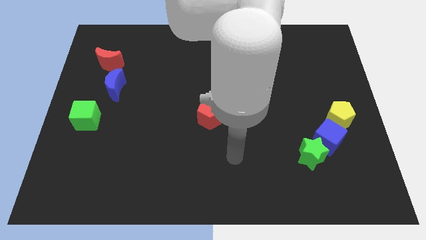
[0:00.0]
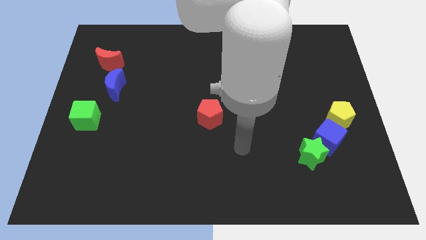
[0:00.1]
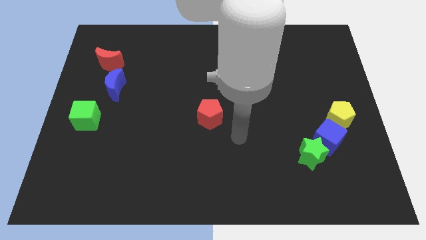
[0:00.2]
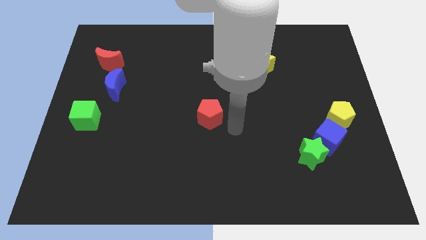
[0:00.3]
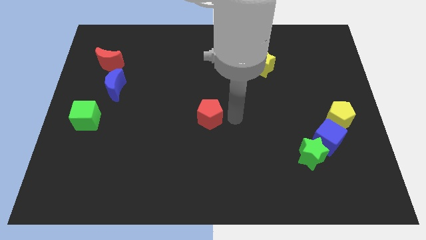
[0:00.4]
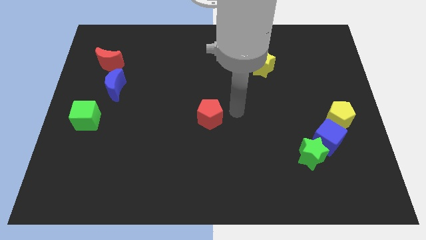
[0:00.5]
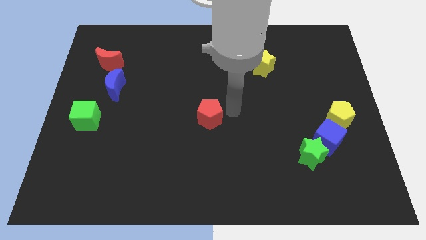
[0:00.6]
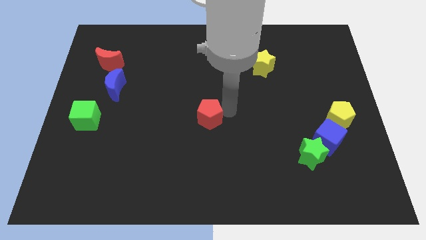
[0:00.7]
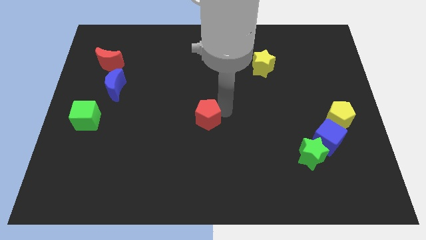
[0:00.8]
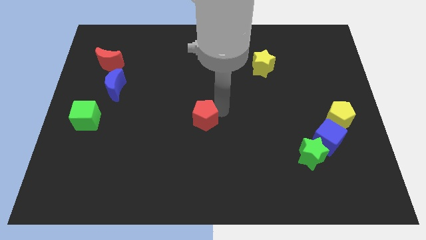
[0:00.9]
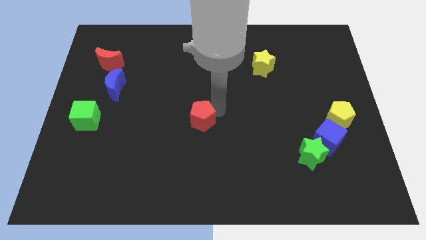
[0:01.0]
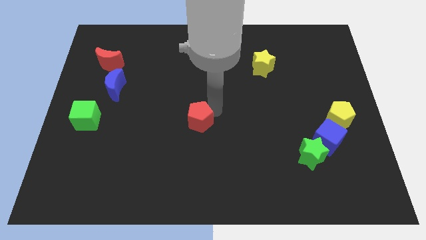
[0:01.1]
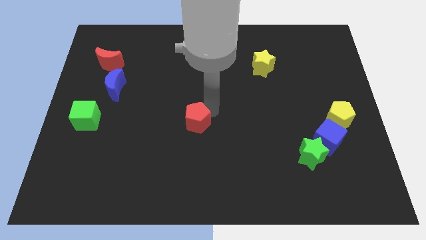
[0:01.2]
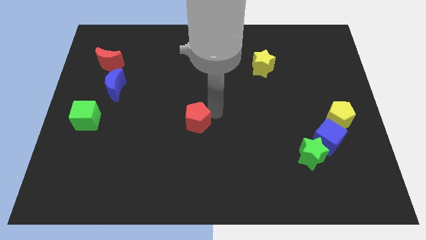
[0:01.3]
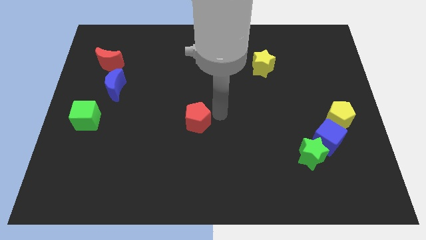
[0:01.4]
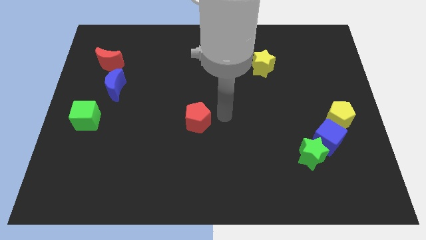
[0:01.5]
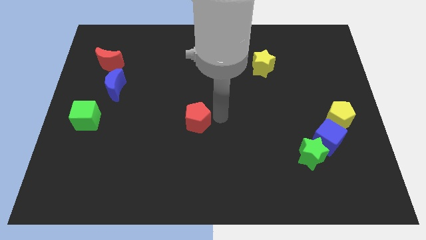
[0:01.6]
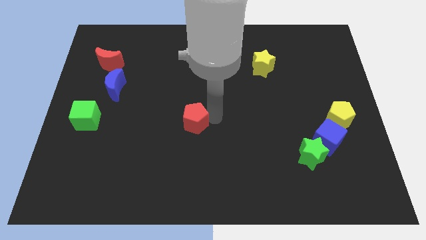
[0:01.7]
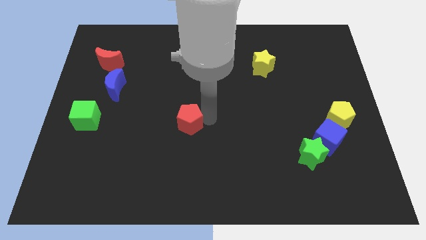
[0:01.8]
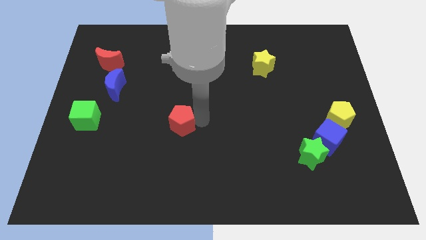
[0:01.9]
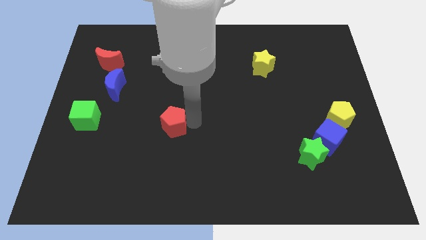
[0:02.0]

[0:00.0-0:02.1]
push the red pentagon left slightly

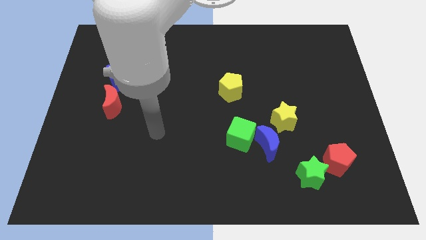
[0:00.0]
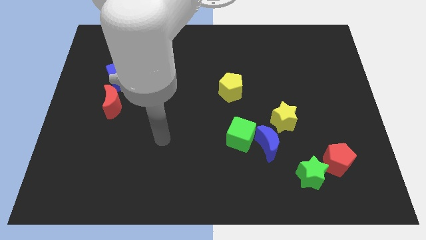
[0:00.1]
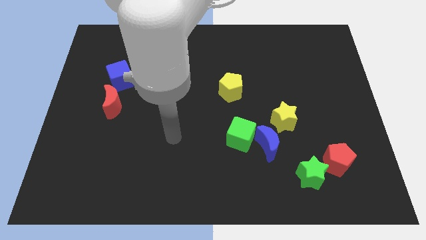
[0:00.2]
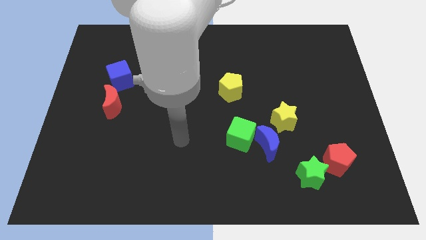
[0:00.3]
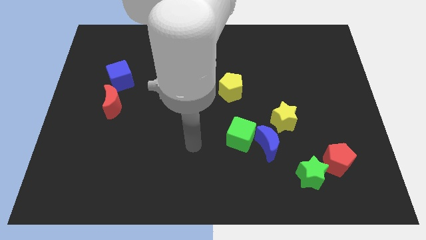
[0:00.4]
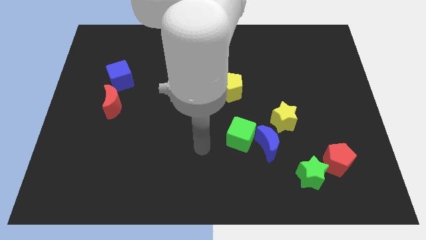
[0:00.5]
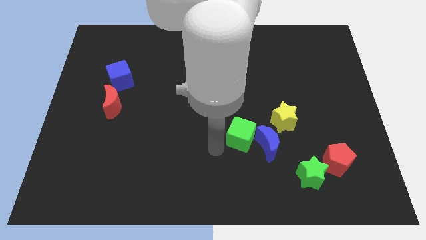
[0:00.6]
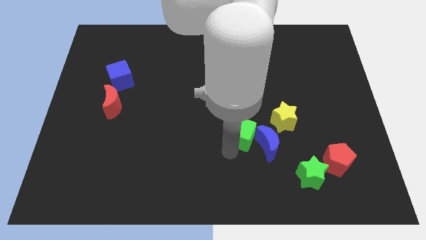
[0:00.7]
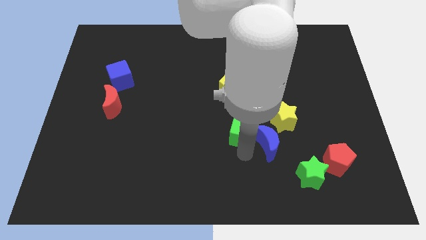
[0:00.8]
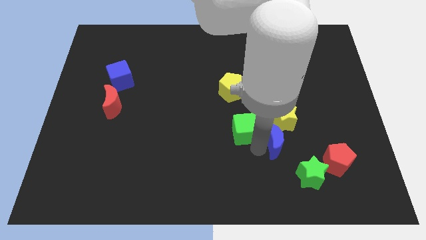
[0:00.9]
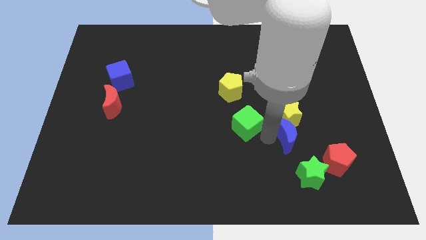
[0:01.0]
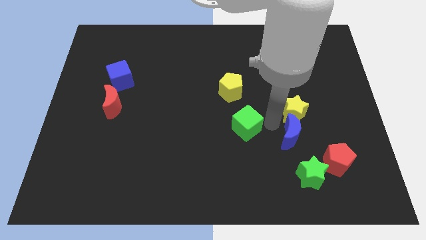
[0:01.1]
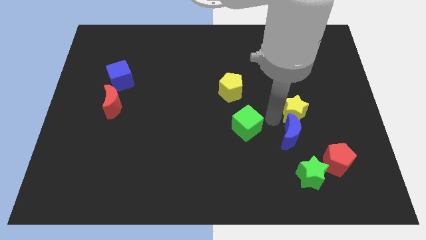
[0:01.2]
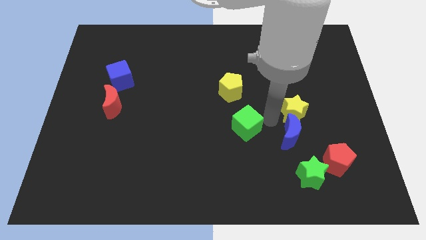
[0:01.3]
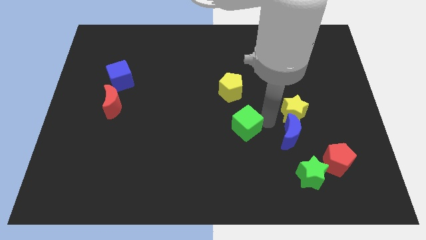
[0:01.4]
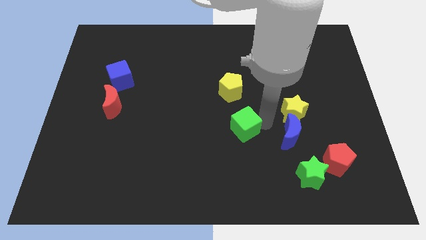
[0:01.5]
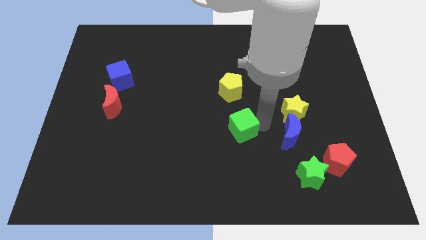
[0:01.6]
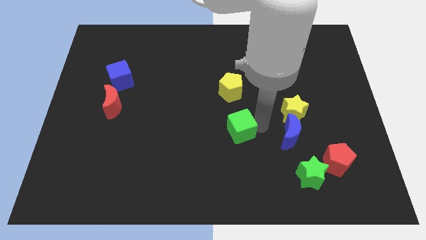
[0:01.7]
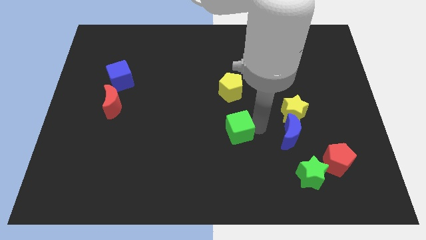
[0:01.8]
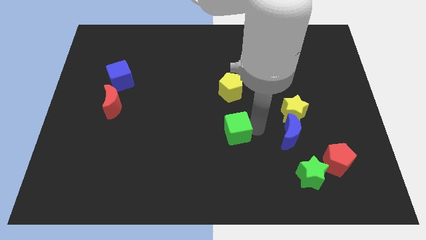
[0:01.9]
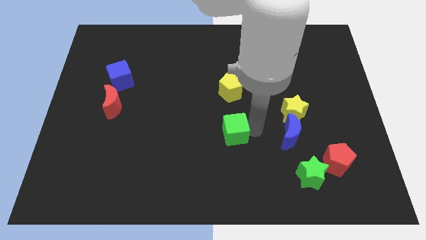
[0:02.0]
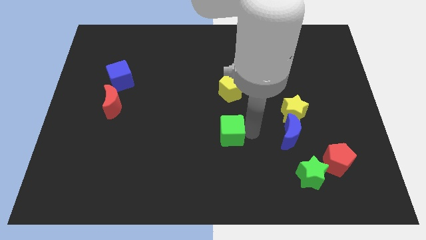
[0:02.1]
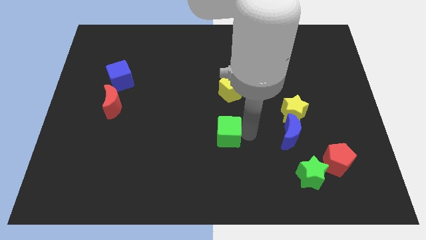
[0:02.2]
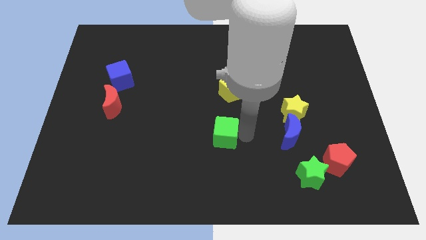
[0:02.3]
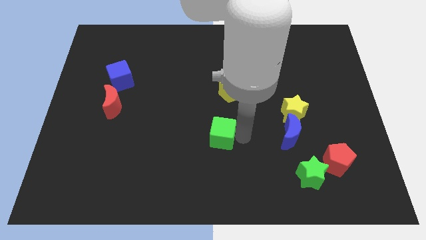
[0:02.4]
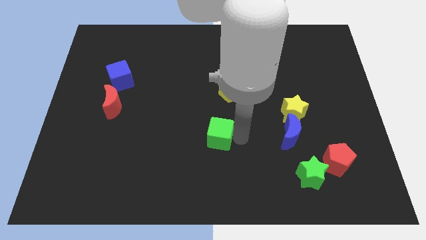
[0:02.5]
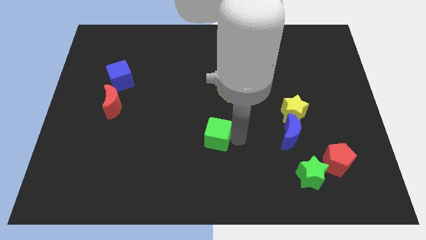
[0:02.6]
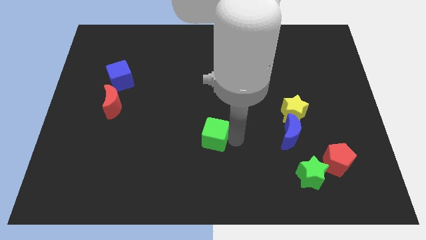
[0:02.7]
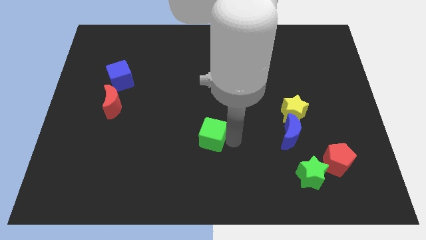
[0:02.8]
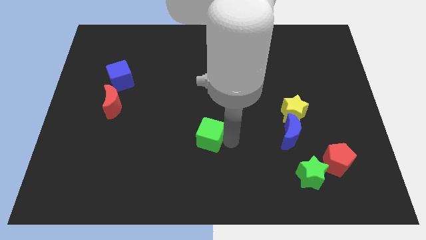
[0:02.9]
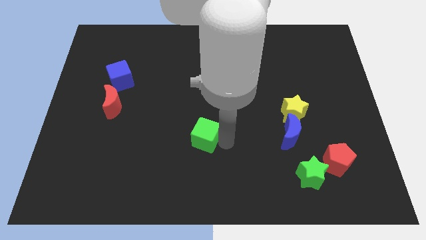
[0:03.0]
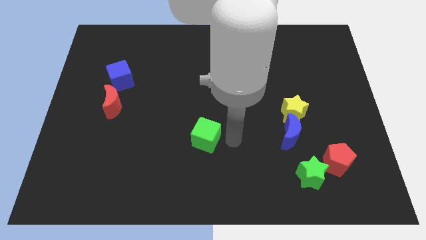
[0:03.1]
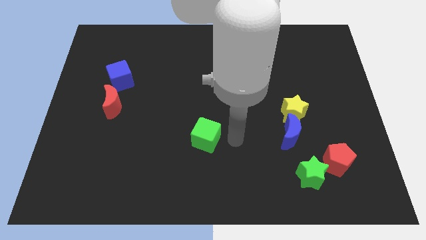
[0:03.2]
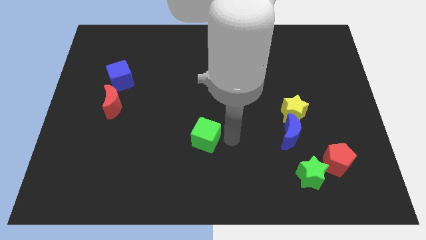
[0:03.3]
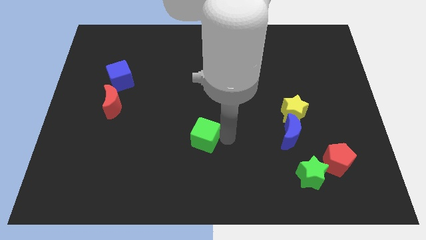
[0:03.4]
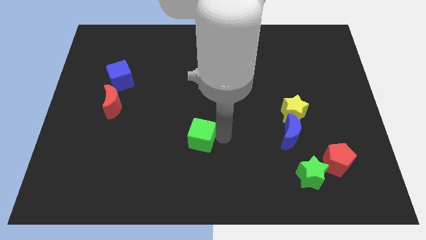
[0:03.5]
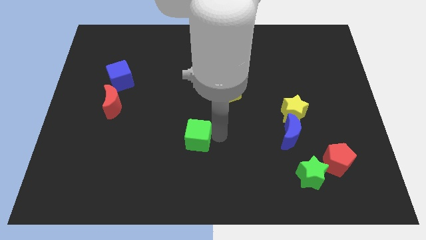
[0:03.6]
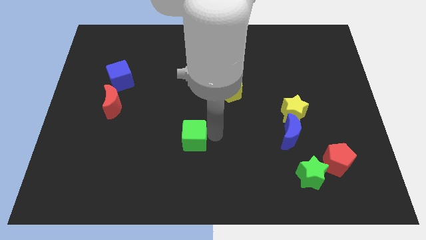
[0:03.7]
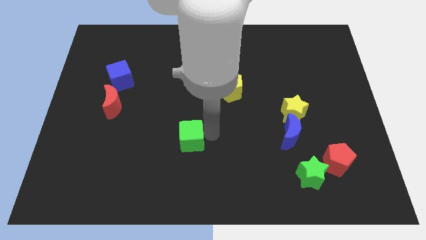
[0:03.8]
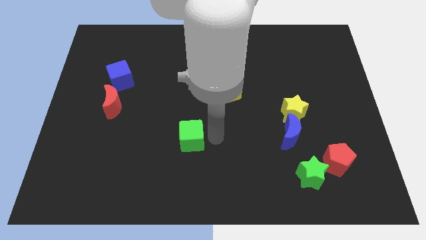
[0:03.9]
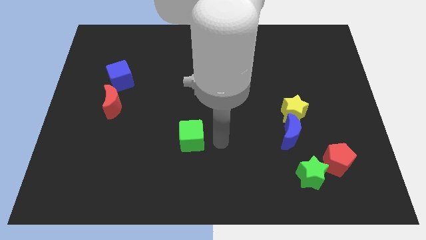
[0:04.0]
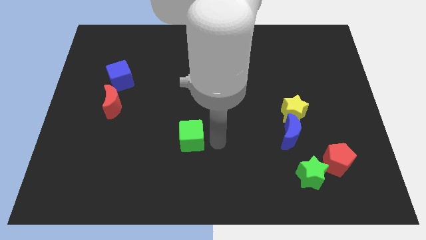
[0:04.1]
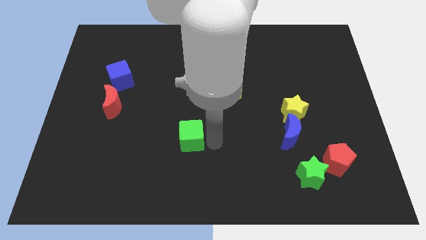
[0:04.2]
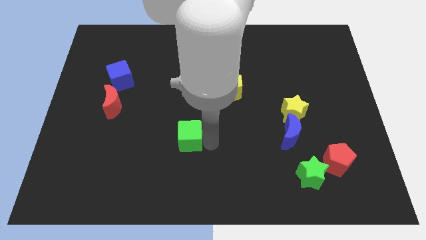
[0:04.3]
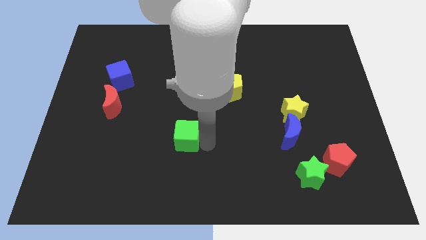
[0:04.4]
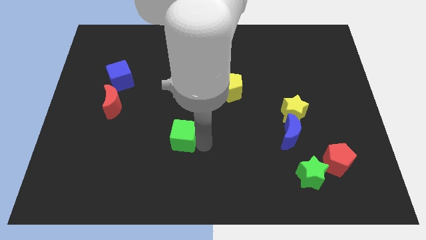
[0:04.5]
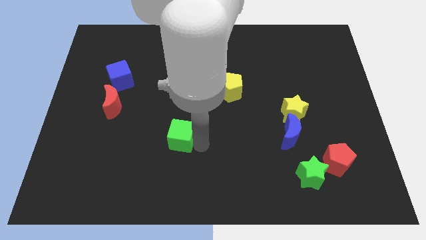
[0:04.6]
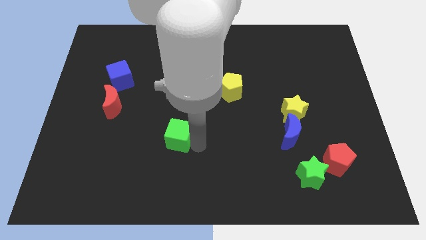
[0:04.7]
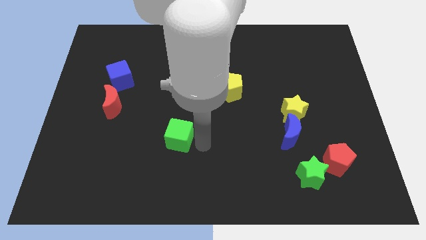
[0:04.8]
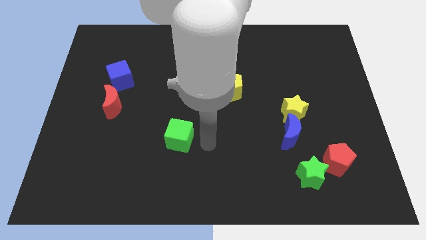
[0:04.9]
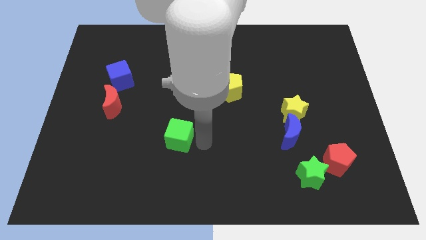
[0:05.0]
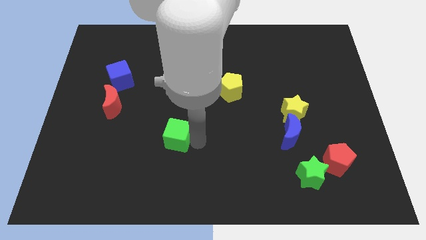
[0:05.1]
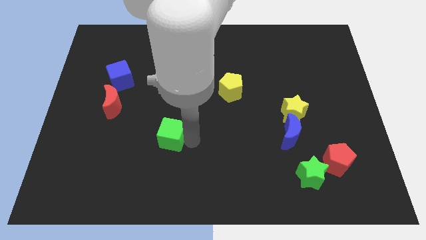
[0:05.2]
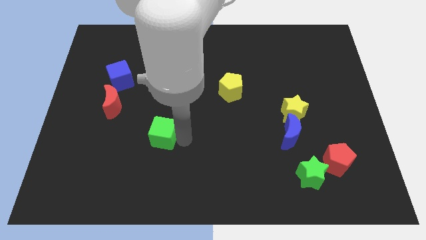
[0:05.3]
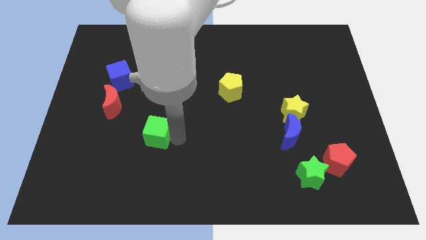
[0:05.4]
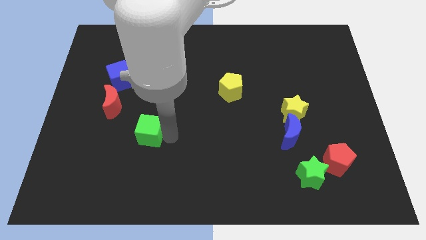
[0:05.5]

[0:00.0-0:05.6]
push the green cube to the left
